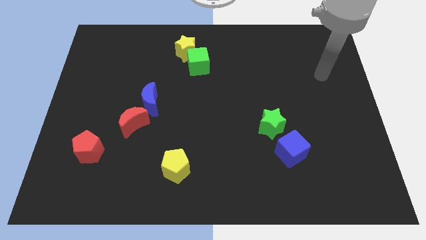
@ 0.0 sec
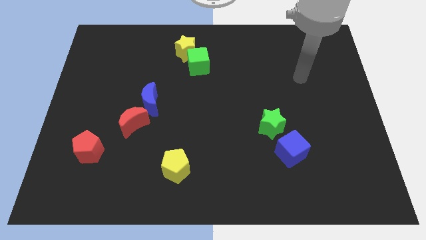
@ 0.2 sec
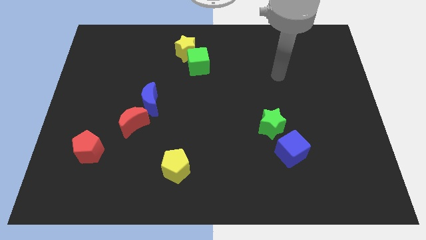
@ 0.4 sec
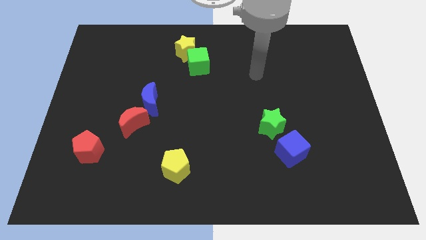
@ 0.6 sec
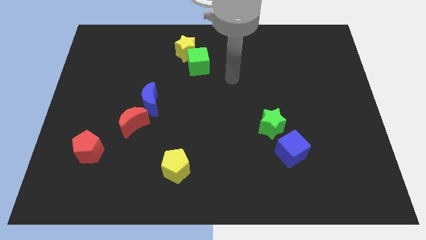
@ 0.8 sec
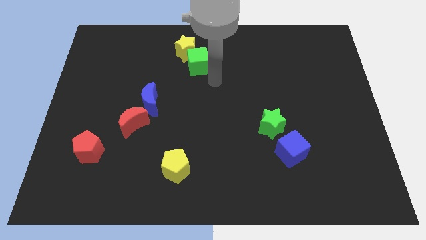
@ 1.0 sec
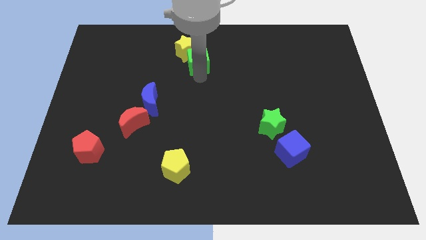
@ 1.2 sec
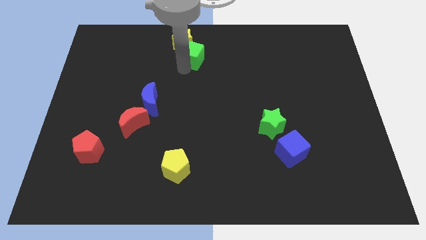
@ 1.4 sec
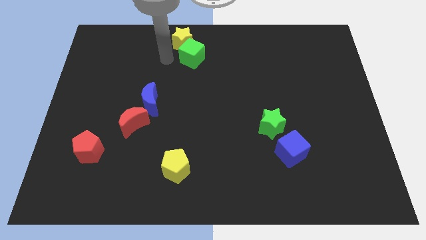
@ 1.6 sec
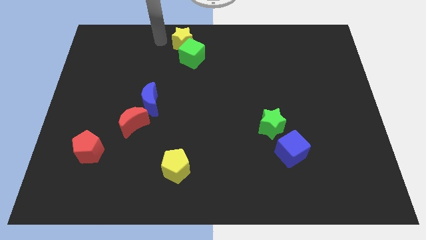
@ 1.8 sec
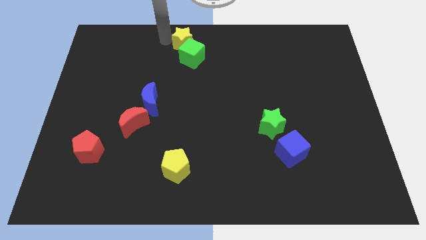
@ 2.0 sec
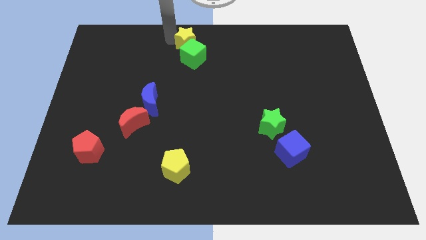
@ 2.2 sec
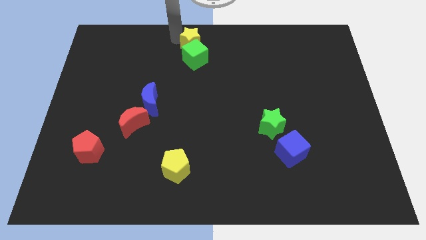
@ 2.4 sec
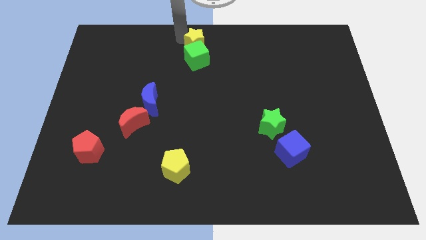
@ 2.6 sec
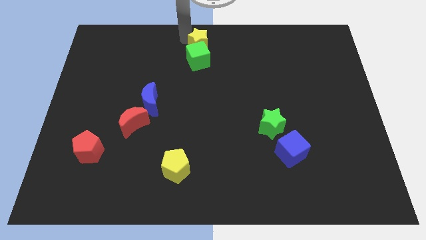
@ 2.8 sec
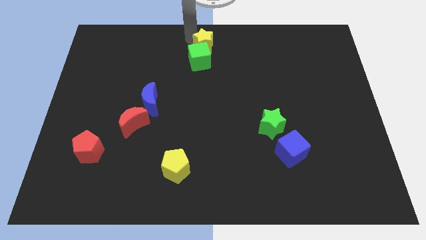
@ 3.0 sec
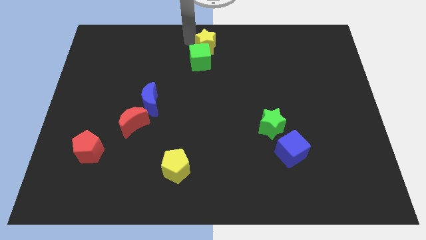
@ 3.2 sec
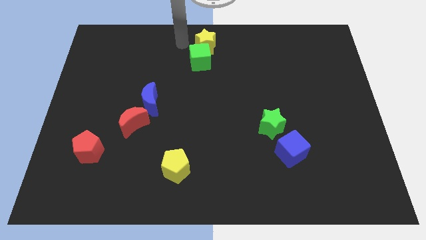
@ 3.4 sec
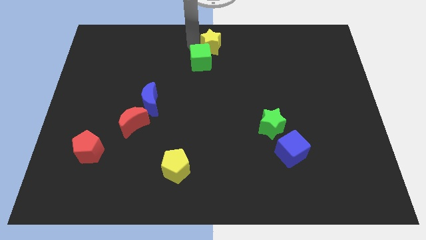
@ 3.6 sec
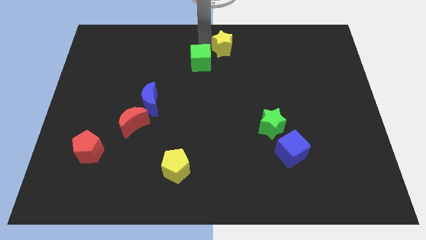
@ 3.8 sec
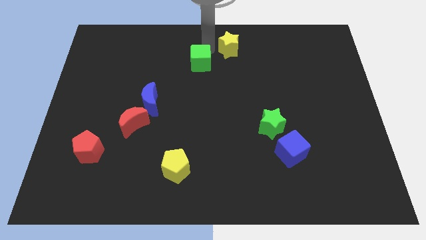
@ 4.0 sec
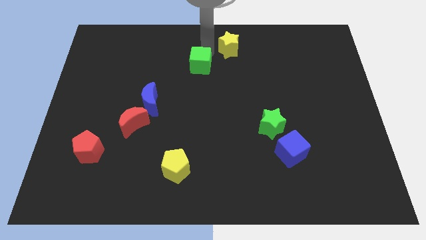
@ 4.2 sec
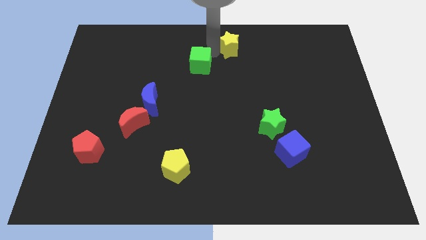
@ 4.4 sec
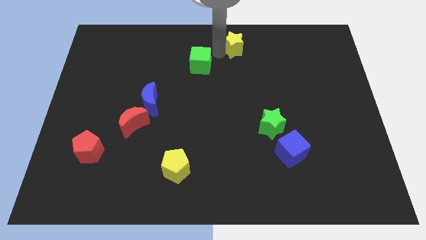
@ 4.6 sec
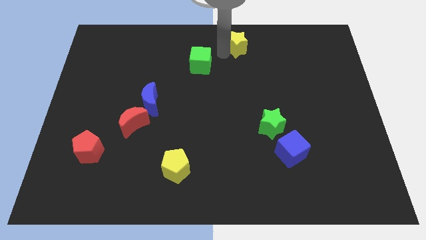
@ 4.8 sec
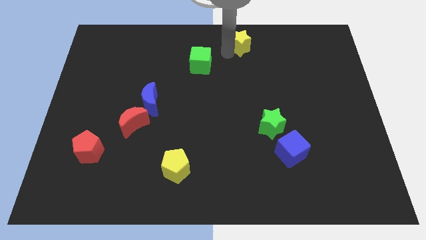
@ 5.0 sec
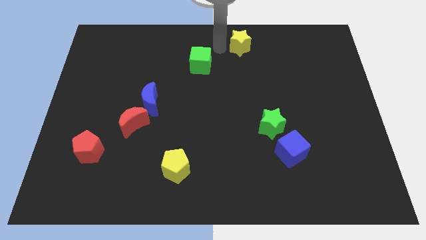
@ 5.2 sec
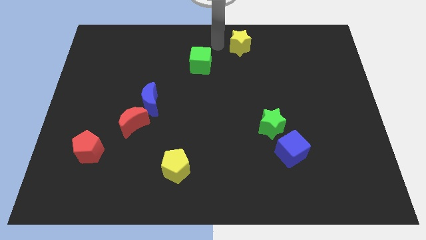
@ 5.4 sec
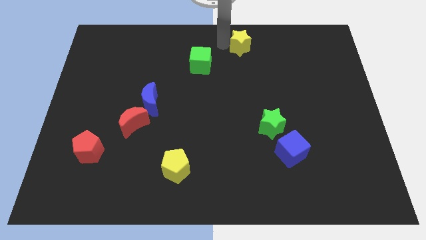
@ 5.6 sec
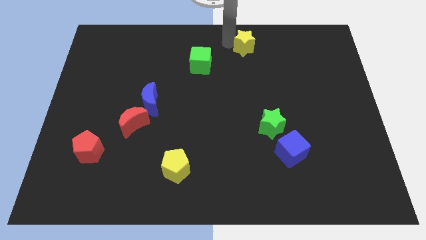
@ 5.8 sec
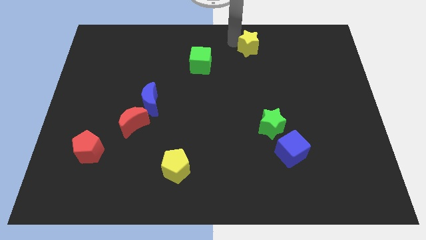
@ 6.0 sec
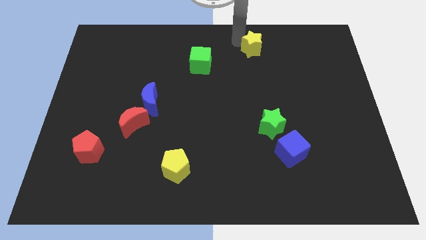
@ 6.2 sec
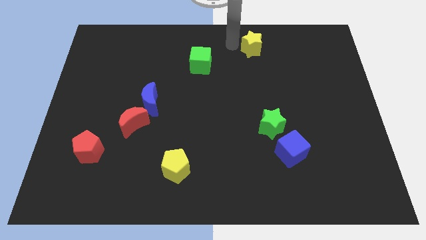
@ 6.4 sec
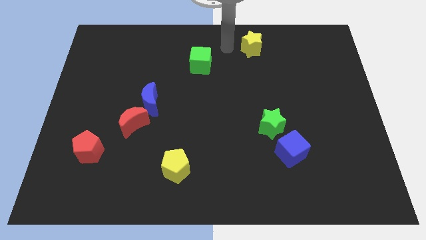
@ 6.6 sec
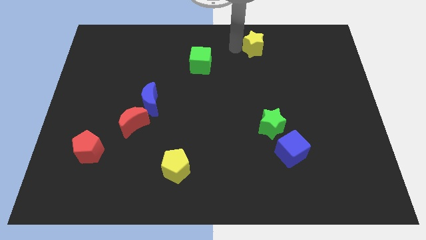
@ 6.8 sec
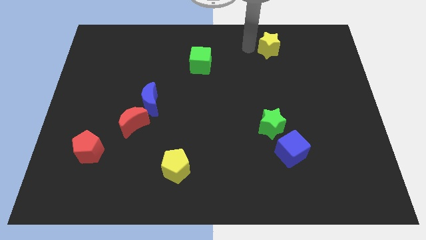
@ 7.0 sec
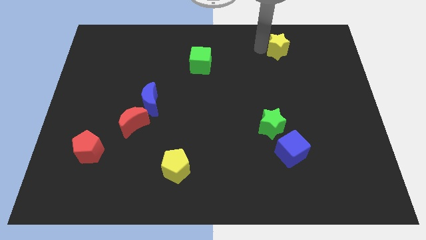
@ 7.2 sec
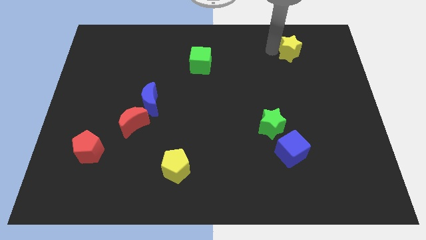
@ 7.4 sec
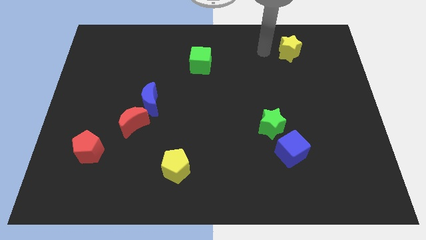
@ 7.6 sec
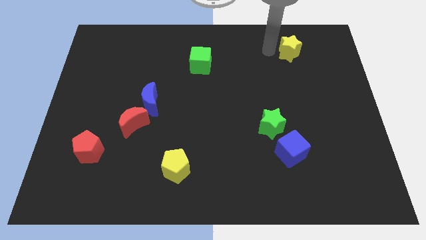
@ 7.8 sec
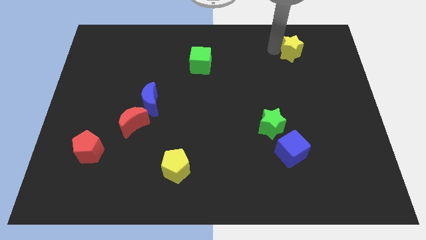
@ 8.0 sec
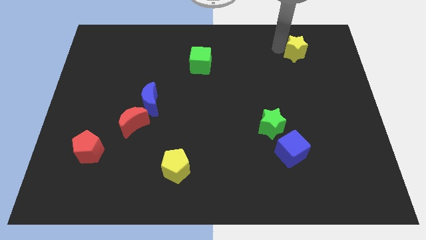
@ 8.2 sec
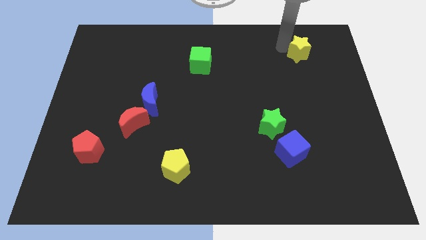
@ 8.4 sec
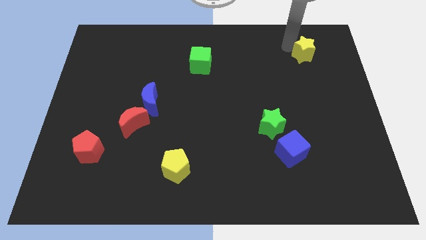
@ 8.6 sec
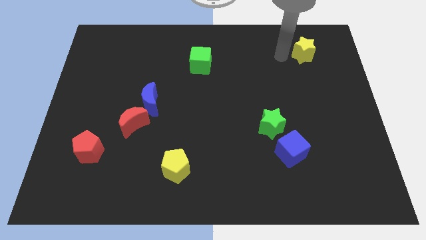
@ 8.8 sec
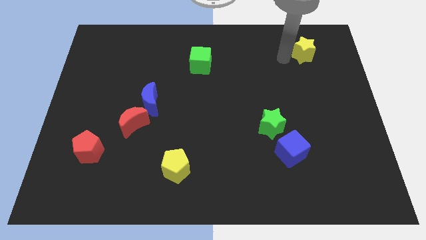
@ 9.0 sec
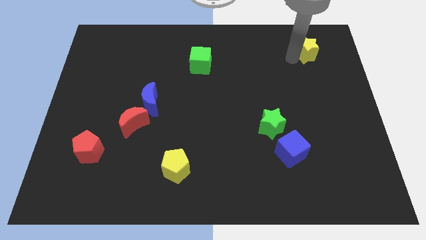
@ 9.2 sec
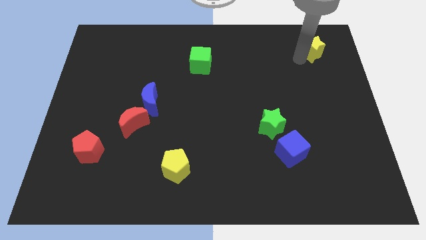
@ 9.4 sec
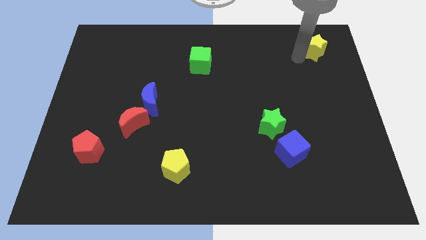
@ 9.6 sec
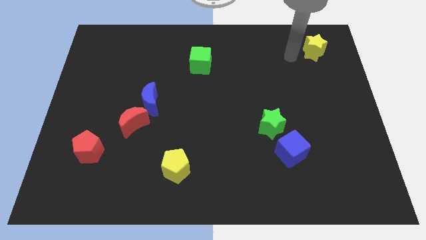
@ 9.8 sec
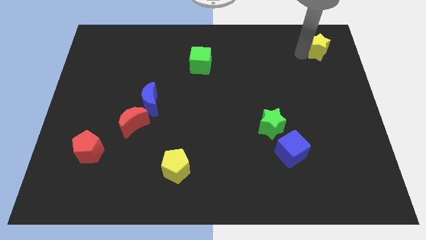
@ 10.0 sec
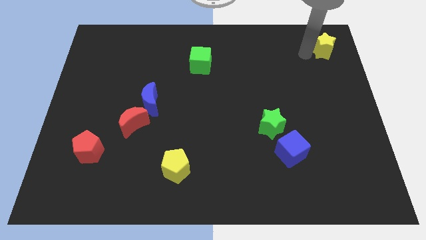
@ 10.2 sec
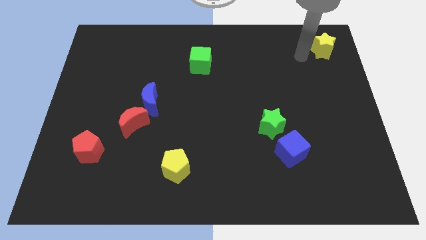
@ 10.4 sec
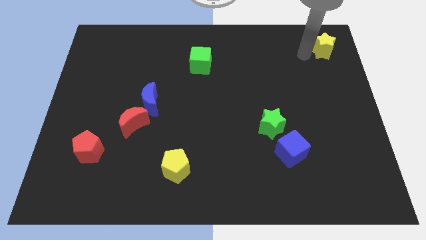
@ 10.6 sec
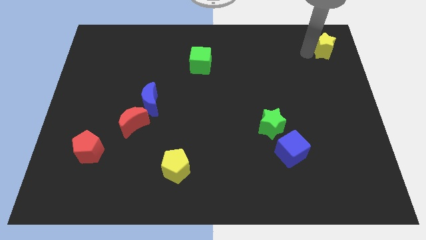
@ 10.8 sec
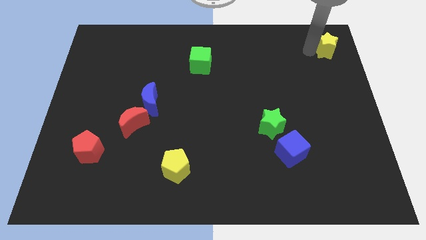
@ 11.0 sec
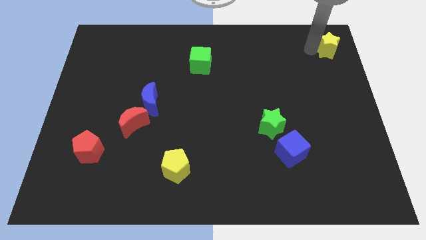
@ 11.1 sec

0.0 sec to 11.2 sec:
put the yellow star to the top right corner
